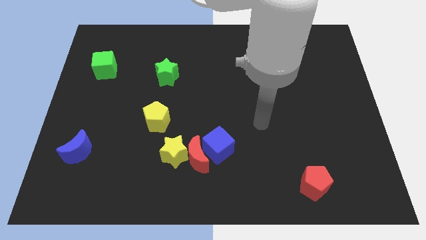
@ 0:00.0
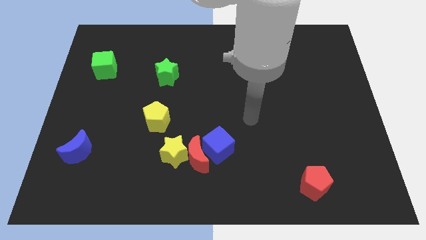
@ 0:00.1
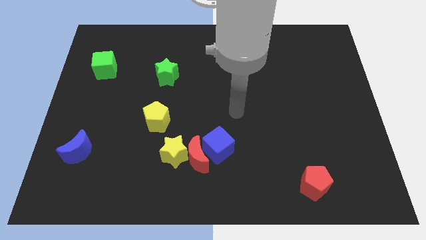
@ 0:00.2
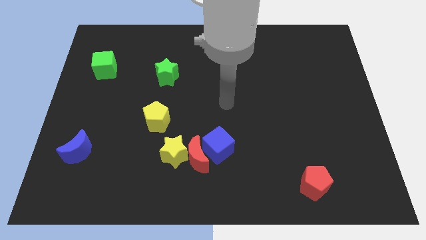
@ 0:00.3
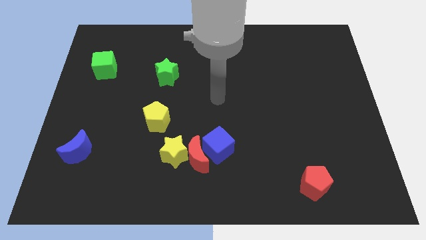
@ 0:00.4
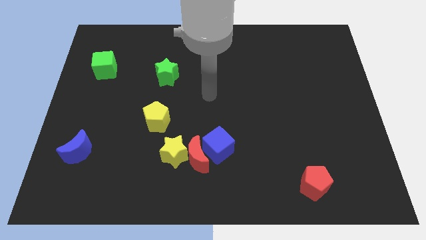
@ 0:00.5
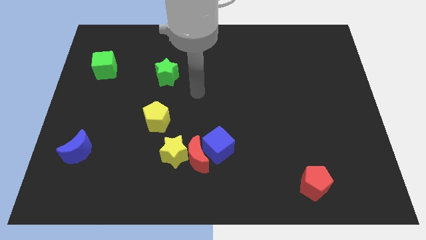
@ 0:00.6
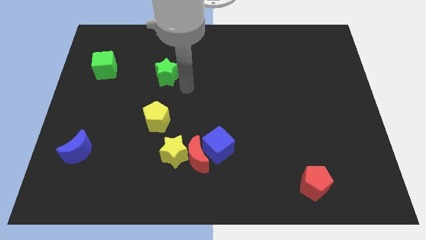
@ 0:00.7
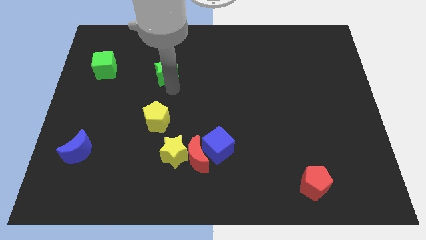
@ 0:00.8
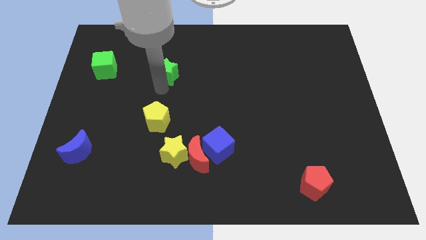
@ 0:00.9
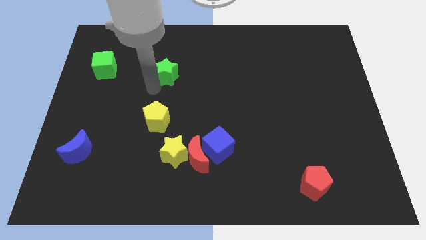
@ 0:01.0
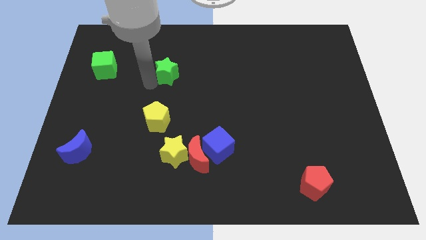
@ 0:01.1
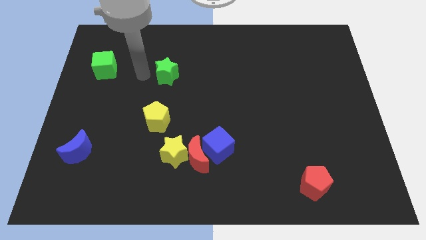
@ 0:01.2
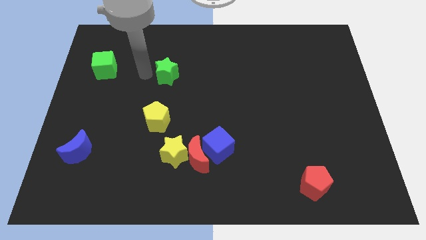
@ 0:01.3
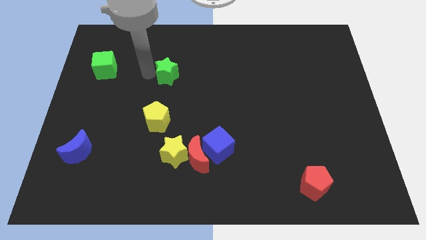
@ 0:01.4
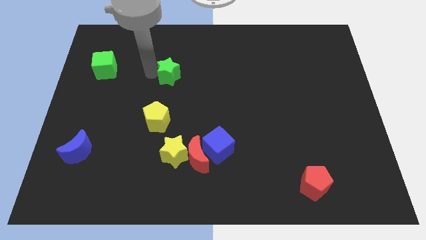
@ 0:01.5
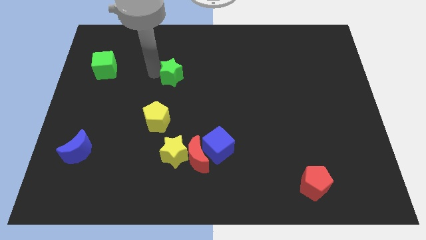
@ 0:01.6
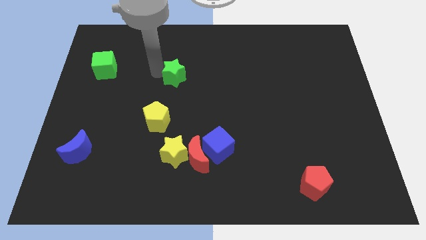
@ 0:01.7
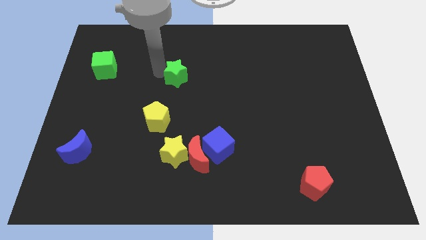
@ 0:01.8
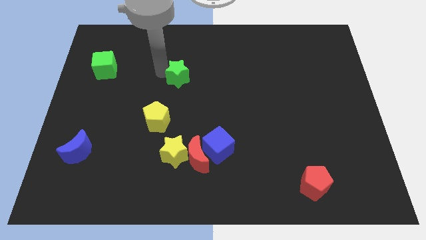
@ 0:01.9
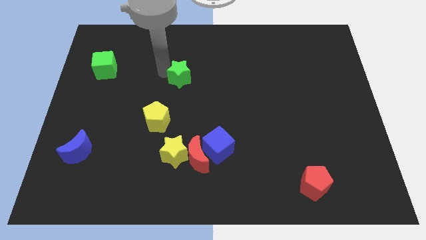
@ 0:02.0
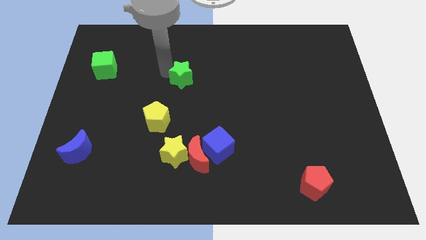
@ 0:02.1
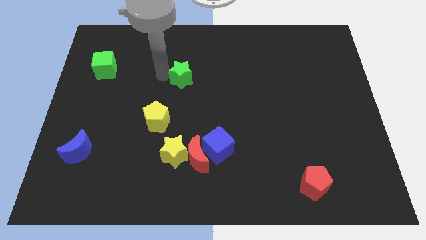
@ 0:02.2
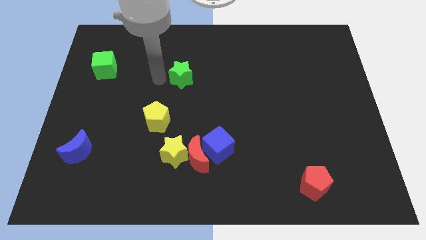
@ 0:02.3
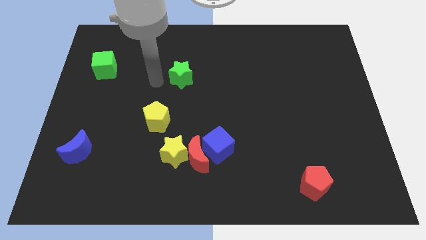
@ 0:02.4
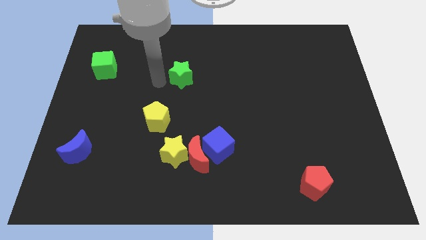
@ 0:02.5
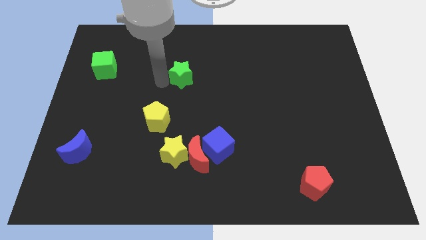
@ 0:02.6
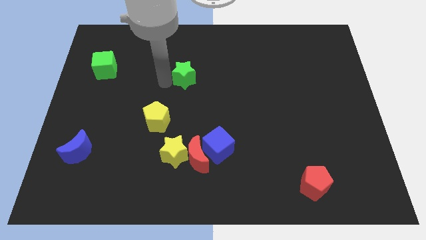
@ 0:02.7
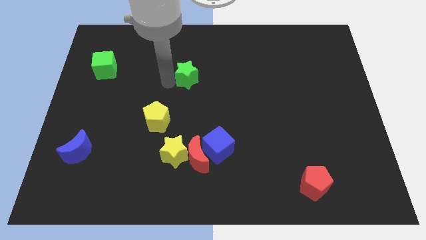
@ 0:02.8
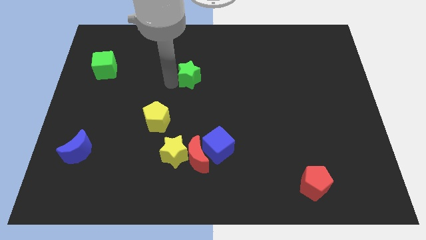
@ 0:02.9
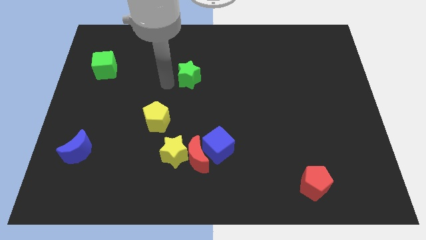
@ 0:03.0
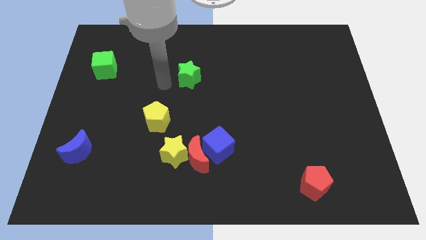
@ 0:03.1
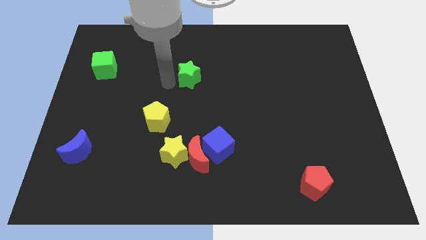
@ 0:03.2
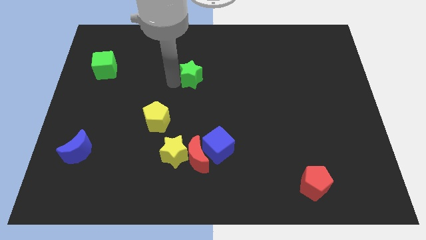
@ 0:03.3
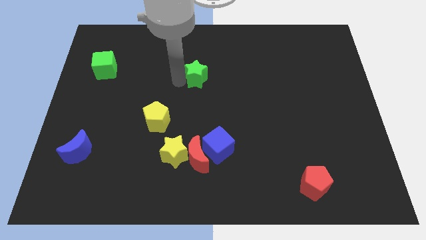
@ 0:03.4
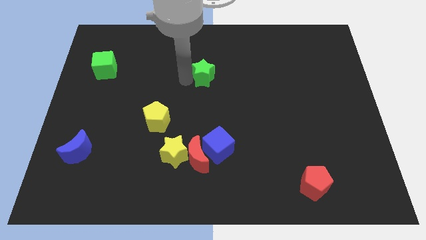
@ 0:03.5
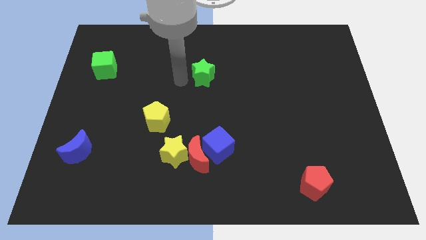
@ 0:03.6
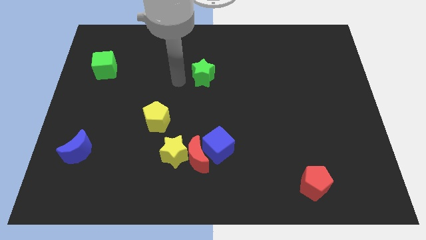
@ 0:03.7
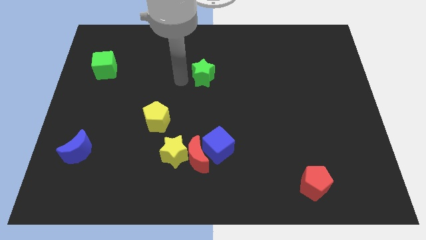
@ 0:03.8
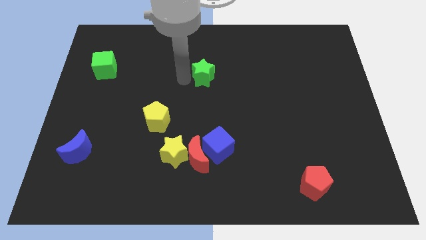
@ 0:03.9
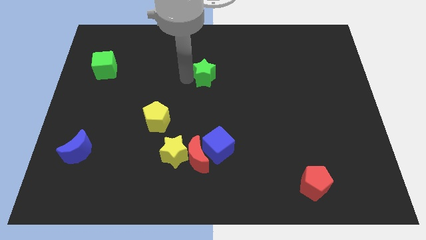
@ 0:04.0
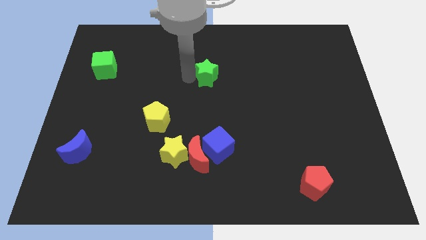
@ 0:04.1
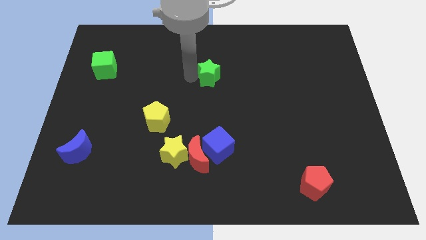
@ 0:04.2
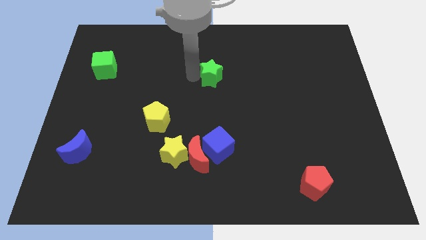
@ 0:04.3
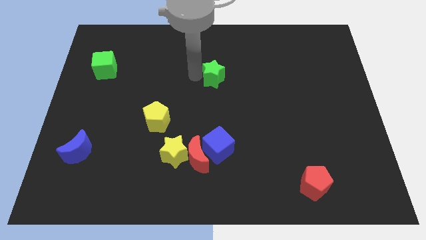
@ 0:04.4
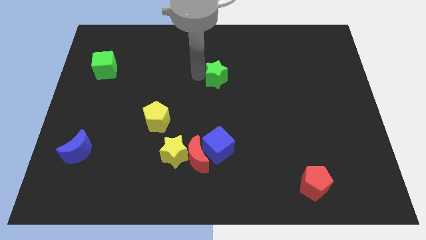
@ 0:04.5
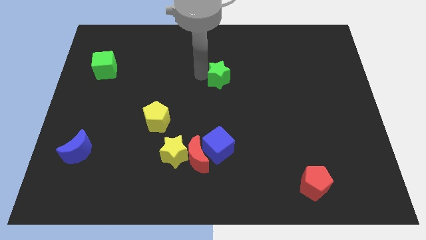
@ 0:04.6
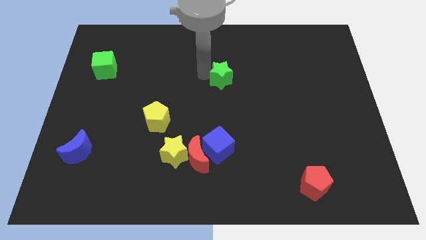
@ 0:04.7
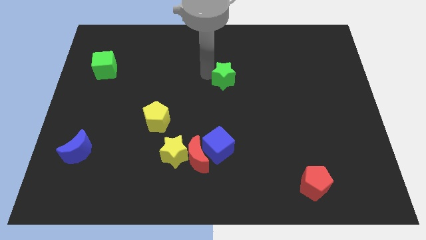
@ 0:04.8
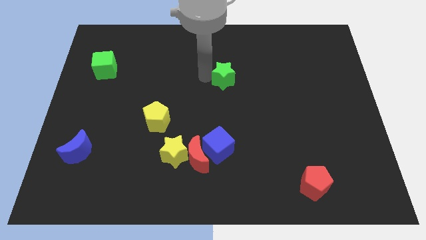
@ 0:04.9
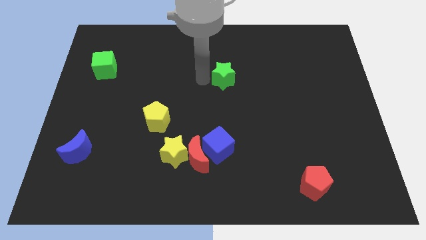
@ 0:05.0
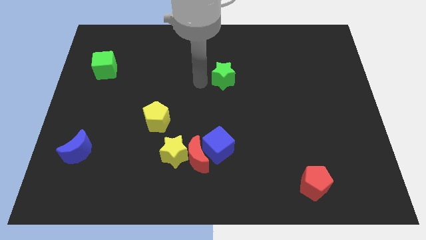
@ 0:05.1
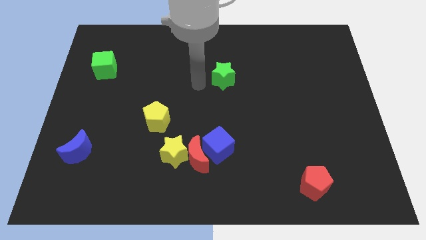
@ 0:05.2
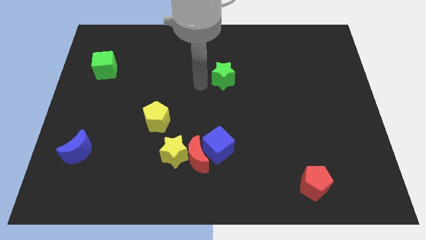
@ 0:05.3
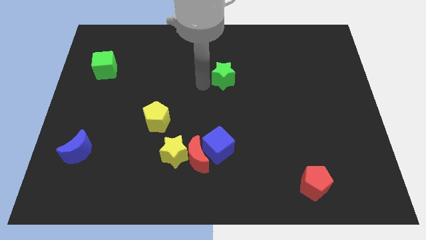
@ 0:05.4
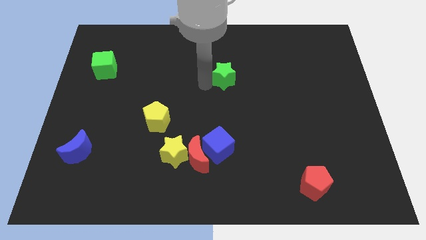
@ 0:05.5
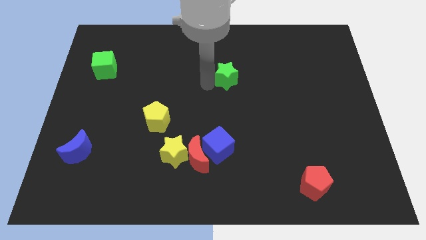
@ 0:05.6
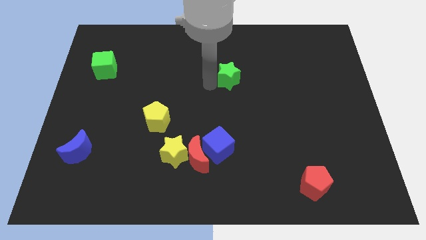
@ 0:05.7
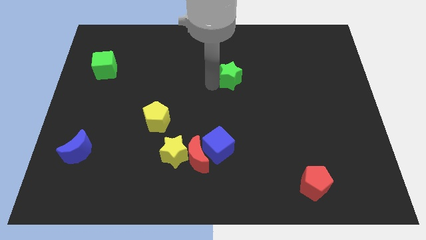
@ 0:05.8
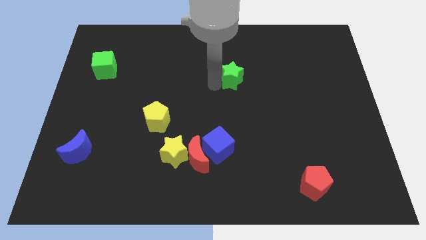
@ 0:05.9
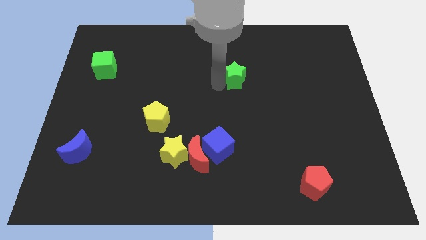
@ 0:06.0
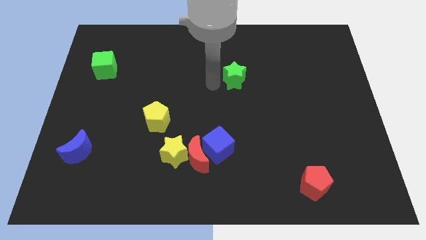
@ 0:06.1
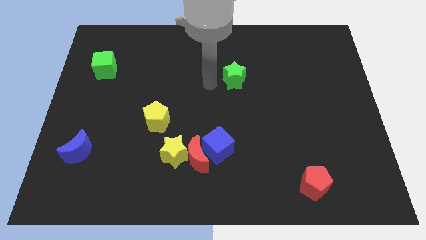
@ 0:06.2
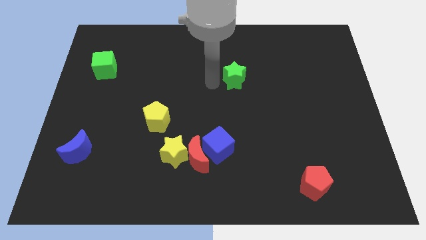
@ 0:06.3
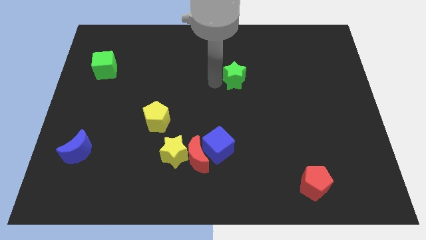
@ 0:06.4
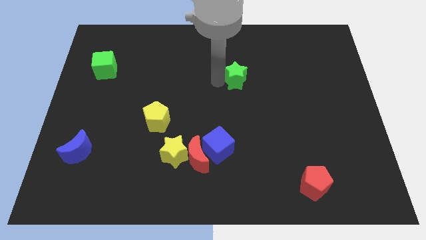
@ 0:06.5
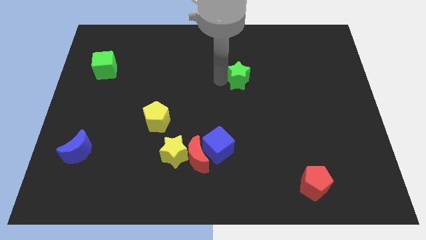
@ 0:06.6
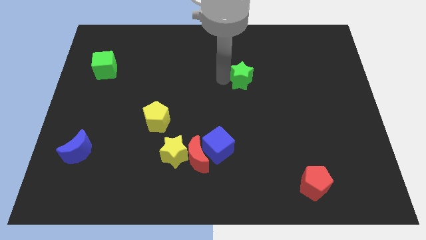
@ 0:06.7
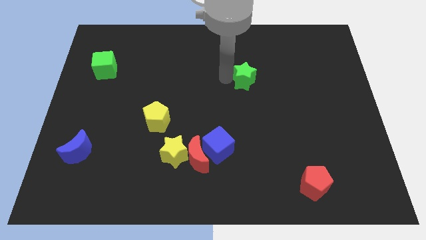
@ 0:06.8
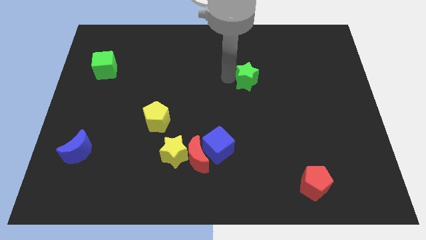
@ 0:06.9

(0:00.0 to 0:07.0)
move the green star right

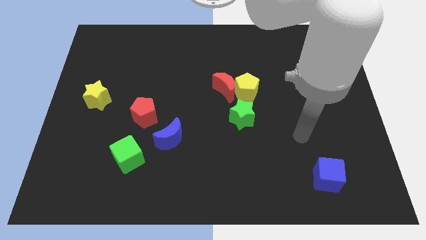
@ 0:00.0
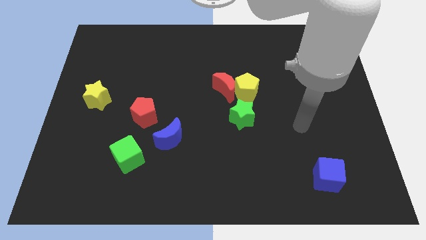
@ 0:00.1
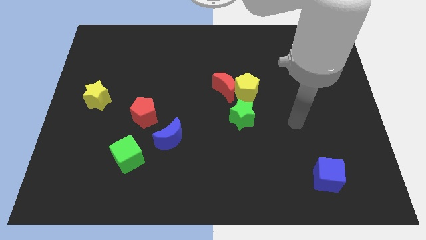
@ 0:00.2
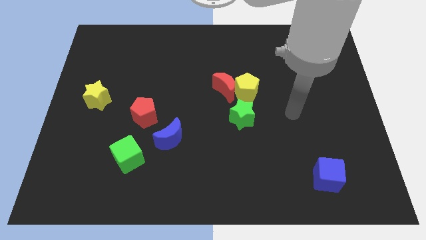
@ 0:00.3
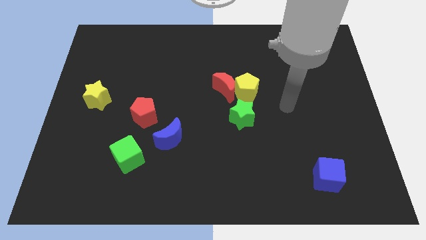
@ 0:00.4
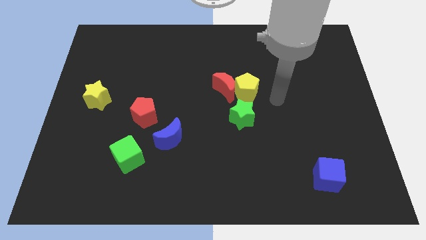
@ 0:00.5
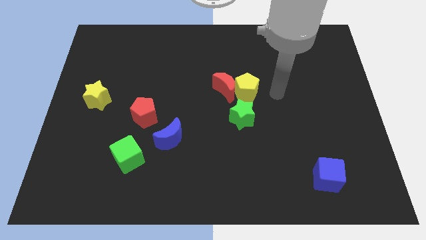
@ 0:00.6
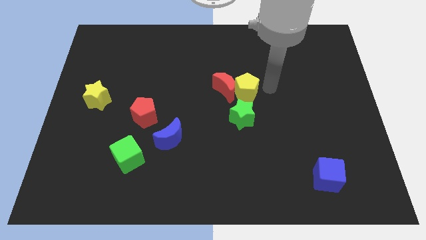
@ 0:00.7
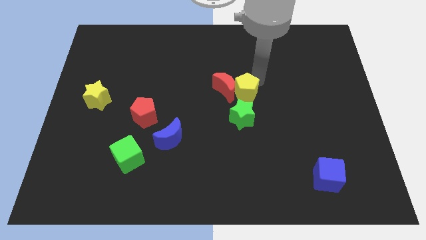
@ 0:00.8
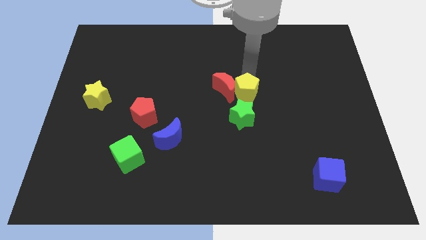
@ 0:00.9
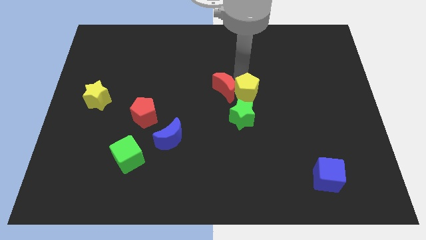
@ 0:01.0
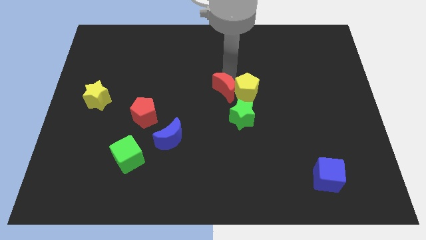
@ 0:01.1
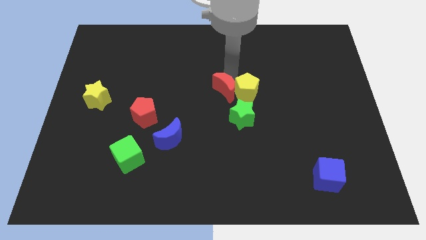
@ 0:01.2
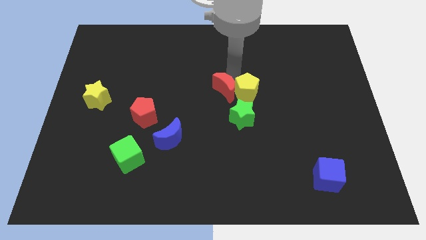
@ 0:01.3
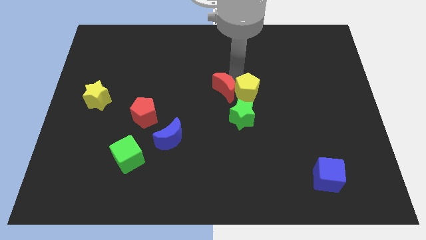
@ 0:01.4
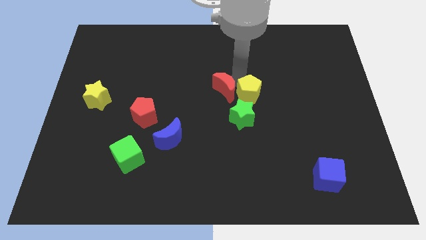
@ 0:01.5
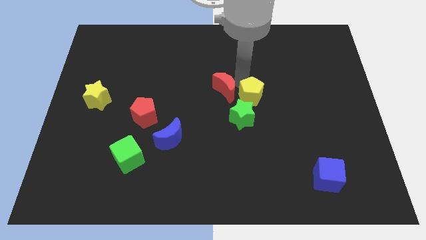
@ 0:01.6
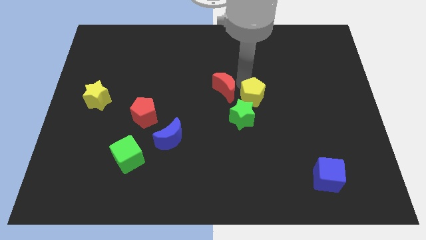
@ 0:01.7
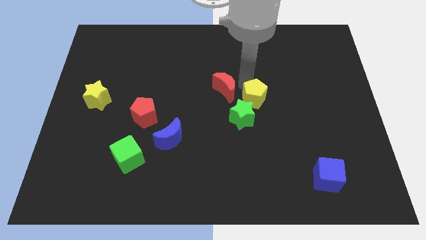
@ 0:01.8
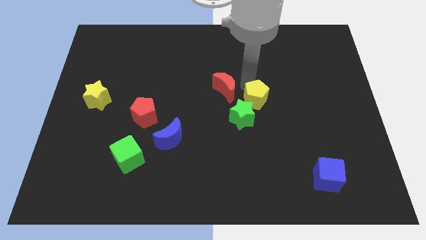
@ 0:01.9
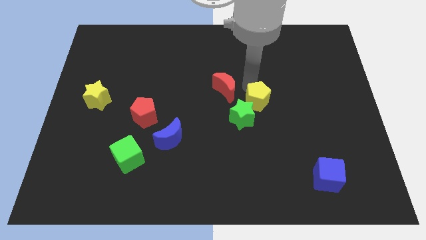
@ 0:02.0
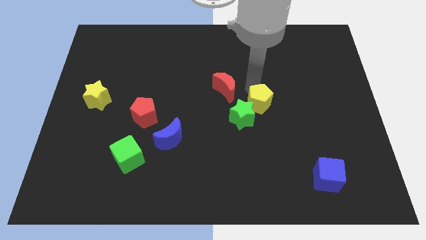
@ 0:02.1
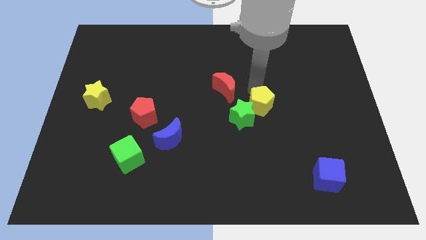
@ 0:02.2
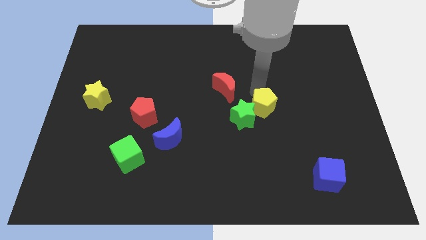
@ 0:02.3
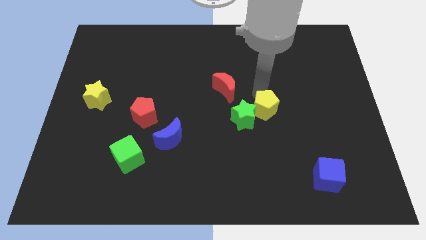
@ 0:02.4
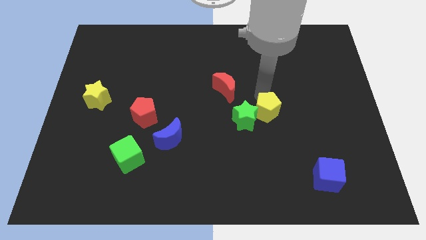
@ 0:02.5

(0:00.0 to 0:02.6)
move the yellow pentagon a little down and to the right
